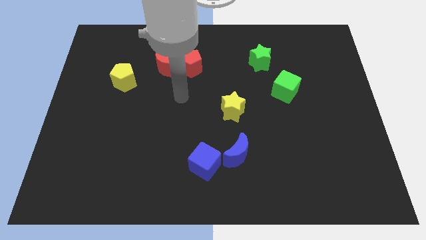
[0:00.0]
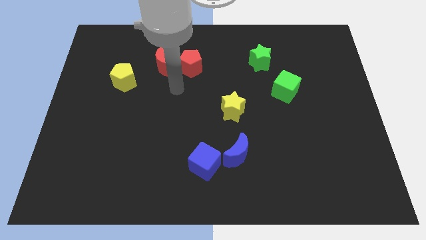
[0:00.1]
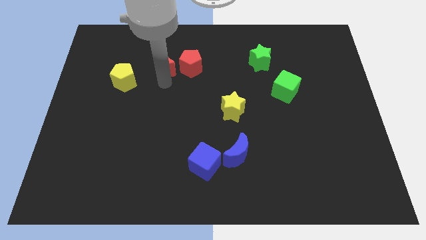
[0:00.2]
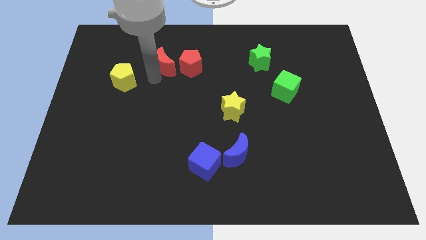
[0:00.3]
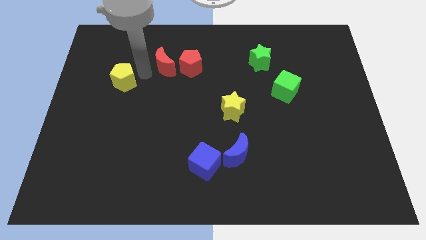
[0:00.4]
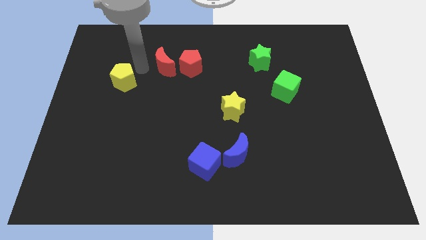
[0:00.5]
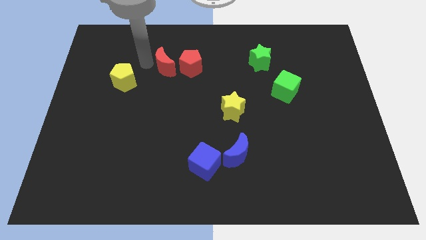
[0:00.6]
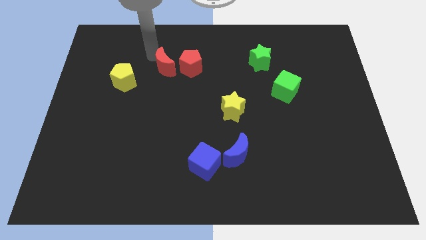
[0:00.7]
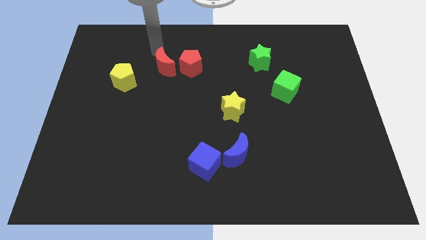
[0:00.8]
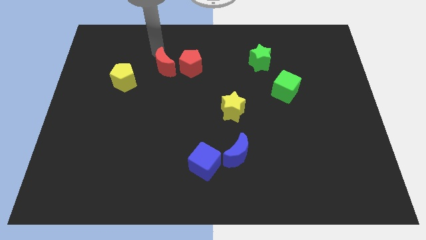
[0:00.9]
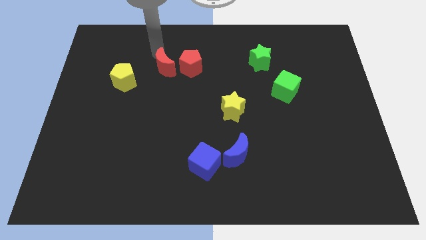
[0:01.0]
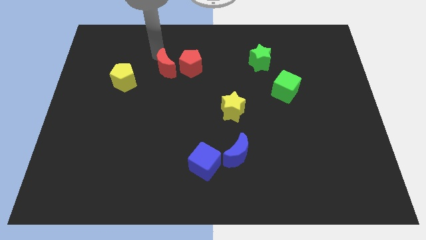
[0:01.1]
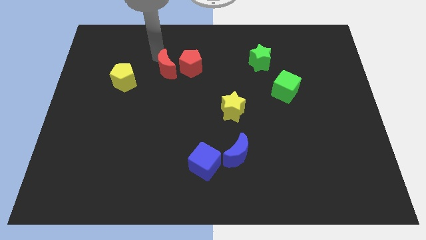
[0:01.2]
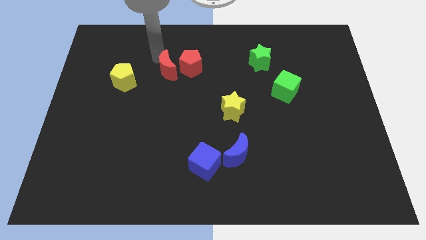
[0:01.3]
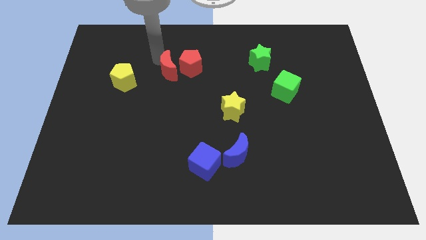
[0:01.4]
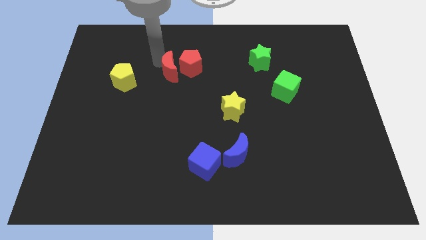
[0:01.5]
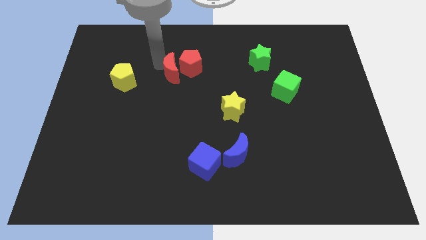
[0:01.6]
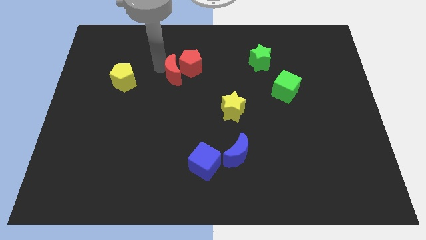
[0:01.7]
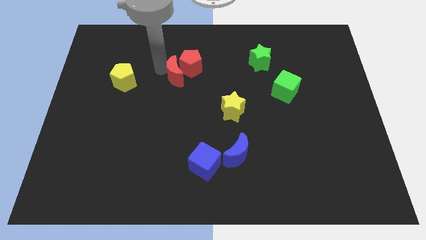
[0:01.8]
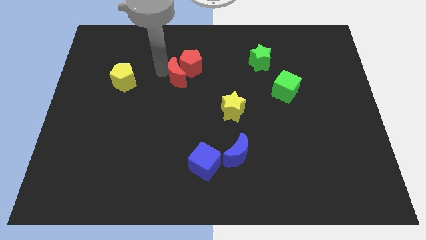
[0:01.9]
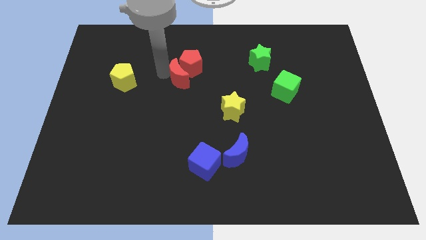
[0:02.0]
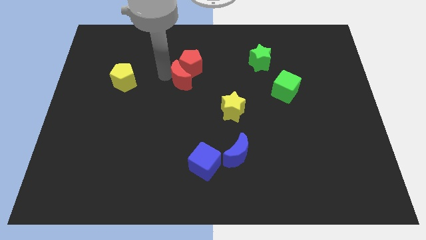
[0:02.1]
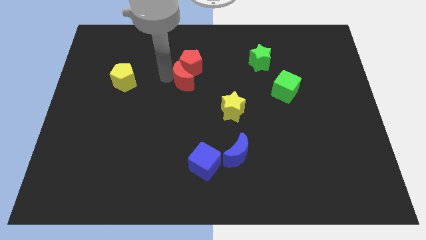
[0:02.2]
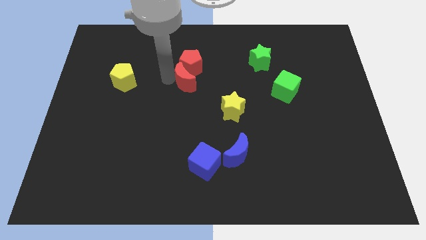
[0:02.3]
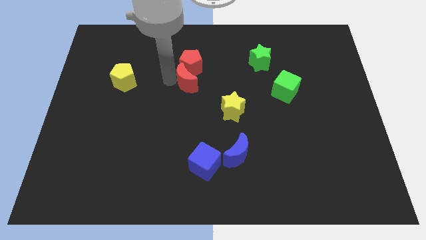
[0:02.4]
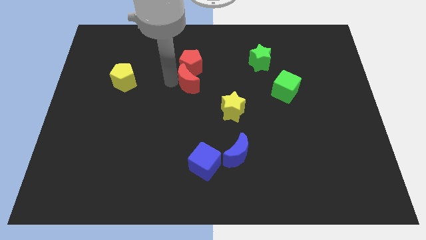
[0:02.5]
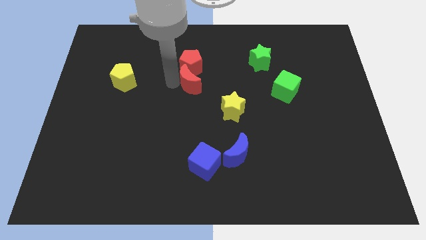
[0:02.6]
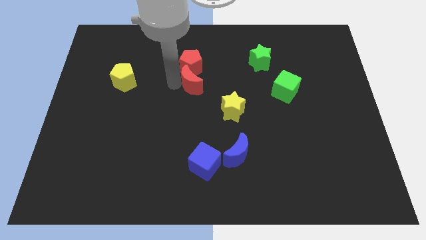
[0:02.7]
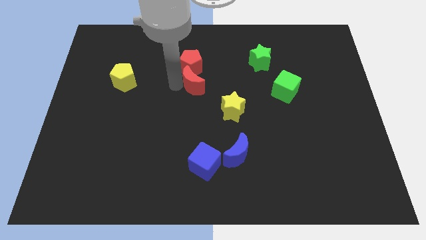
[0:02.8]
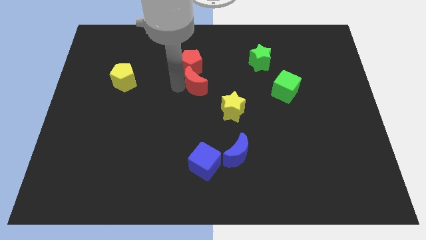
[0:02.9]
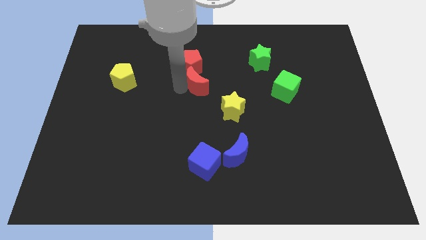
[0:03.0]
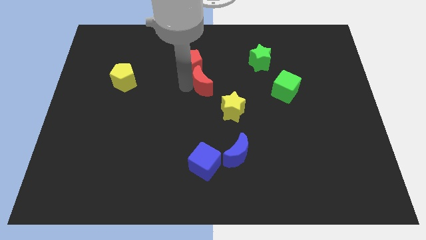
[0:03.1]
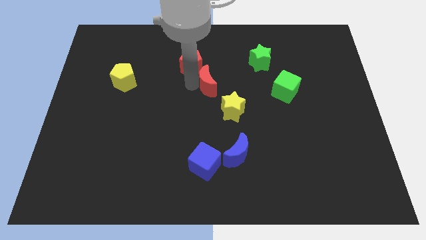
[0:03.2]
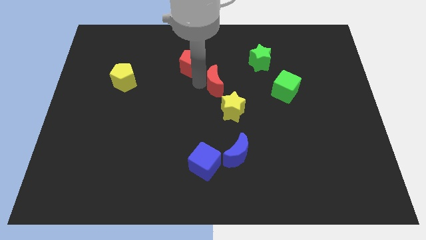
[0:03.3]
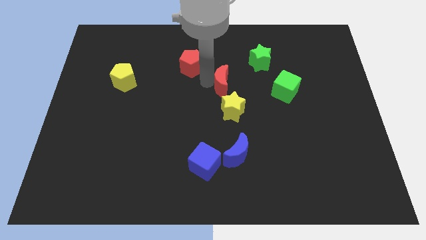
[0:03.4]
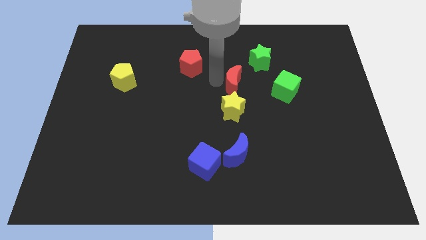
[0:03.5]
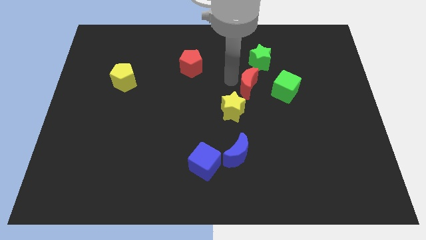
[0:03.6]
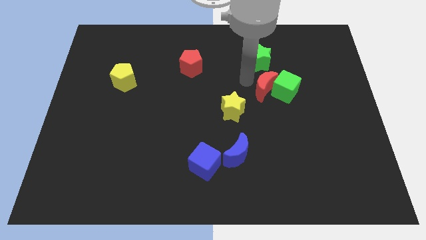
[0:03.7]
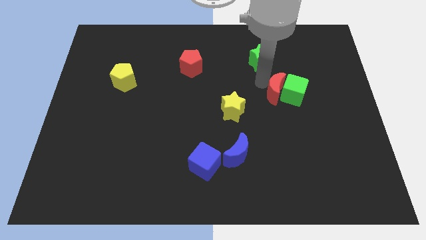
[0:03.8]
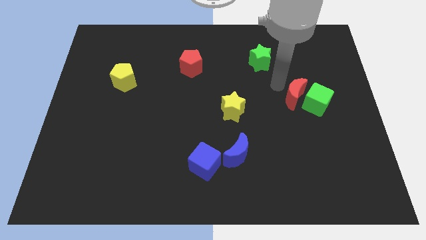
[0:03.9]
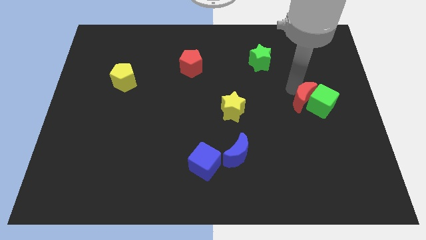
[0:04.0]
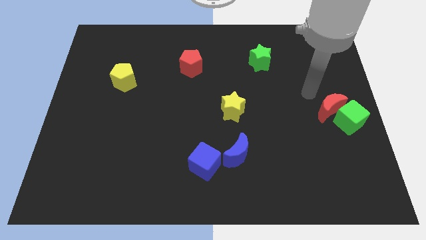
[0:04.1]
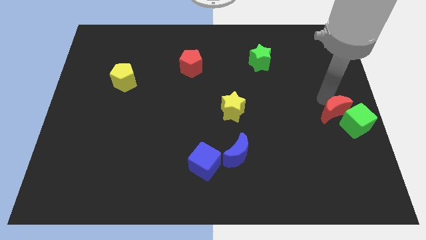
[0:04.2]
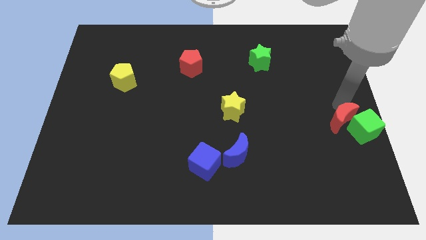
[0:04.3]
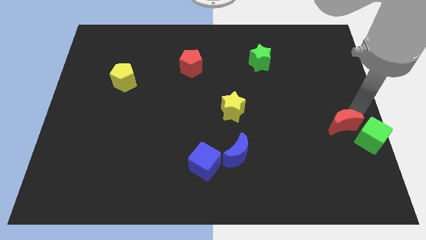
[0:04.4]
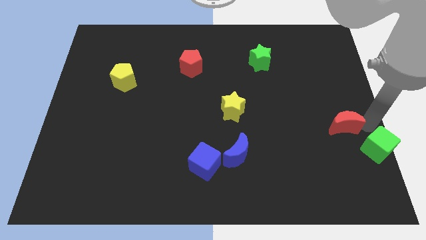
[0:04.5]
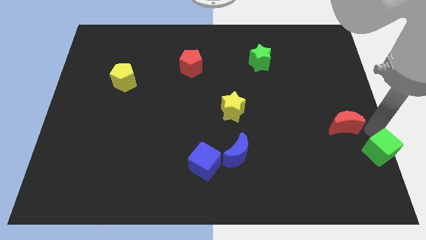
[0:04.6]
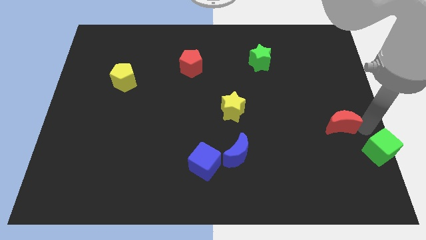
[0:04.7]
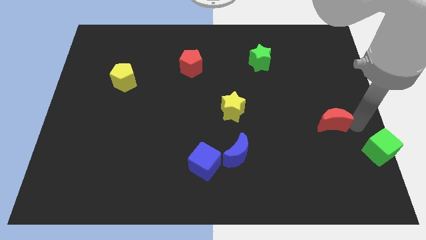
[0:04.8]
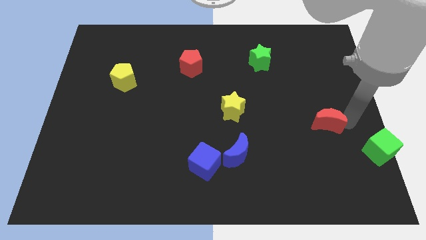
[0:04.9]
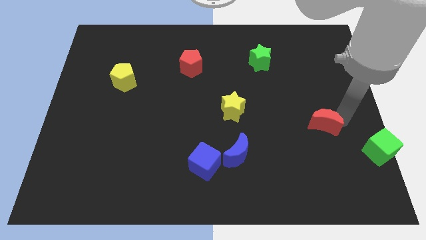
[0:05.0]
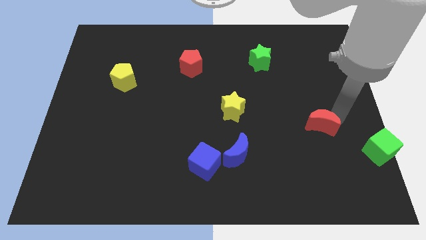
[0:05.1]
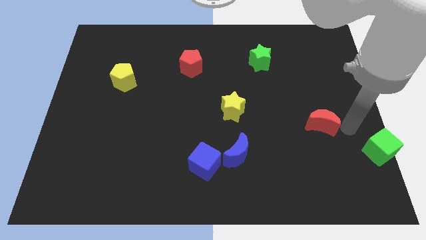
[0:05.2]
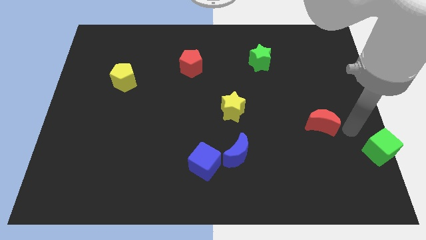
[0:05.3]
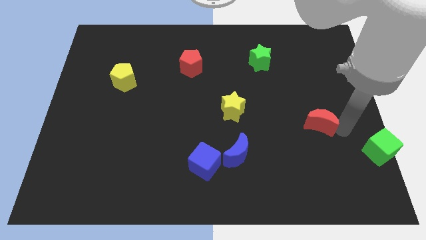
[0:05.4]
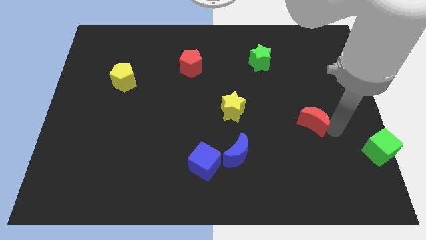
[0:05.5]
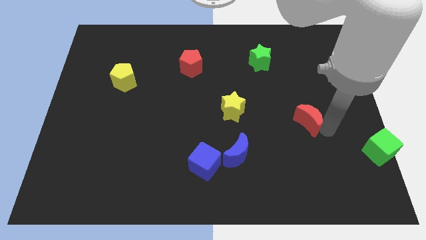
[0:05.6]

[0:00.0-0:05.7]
push the red moon diagonally down and to the right

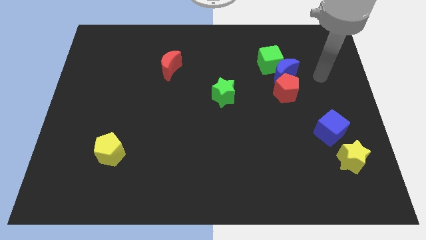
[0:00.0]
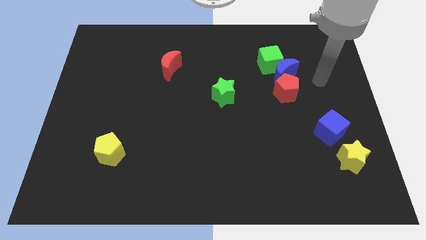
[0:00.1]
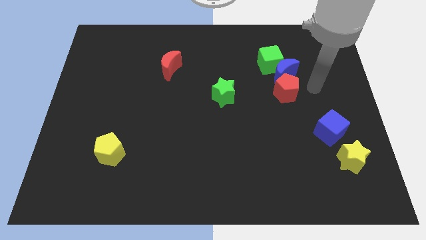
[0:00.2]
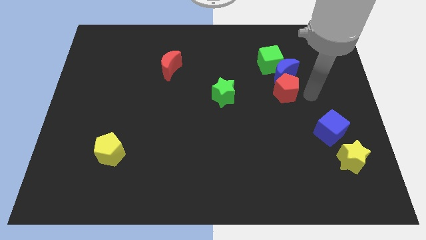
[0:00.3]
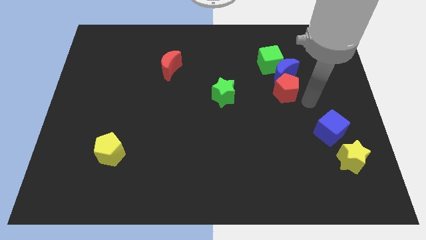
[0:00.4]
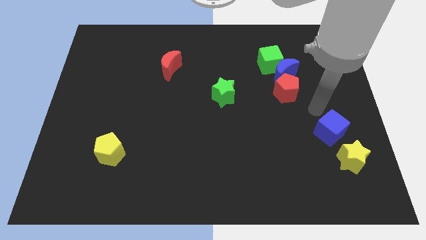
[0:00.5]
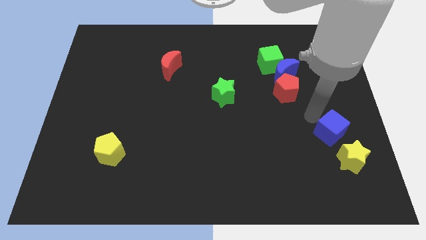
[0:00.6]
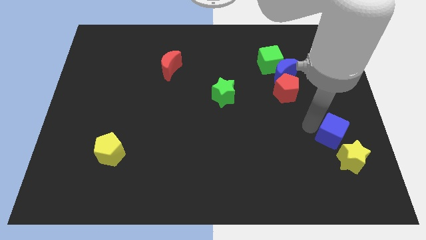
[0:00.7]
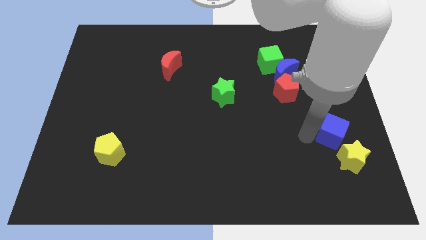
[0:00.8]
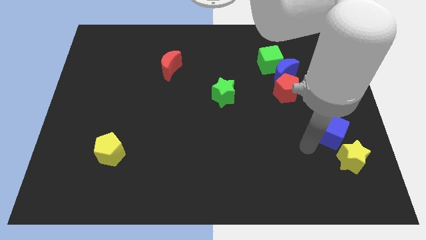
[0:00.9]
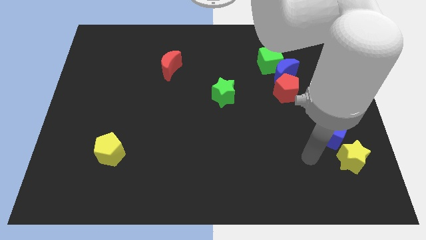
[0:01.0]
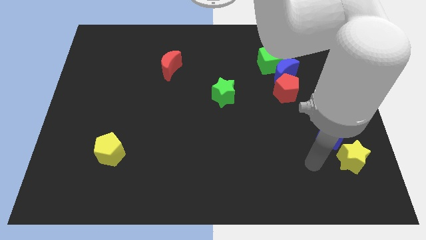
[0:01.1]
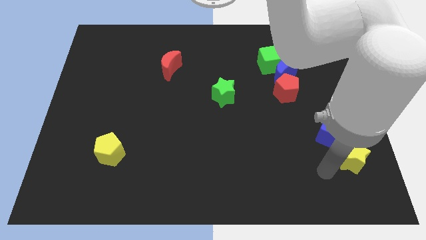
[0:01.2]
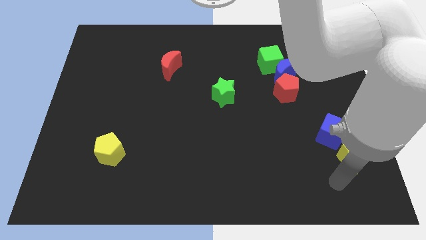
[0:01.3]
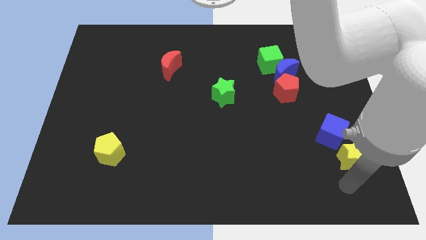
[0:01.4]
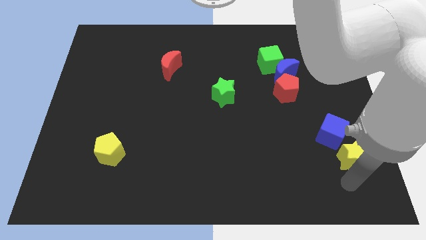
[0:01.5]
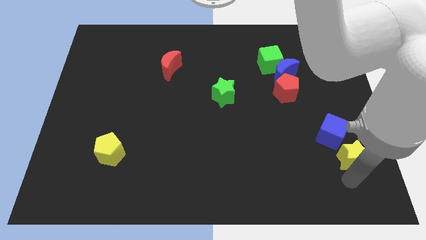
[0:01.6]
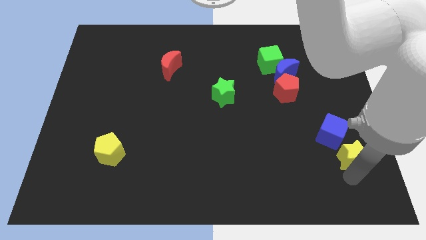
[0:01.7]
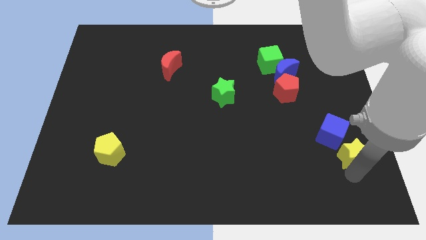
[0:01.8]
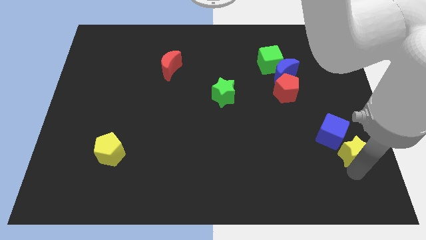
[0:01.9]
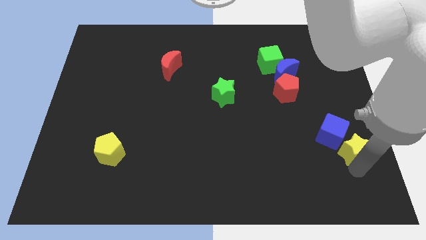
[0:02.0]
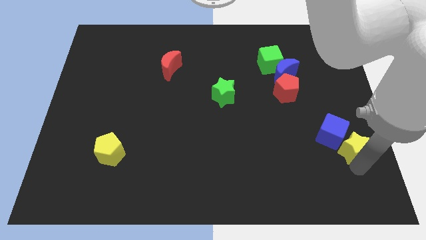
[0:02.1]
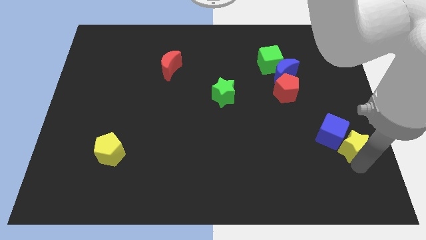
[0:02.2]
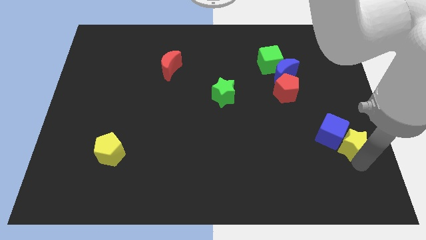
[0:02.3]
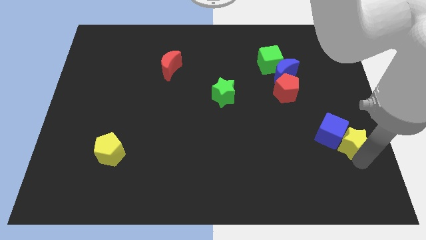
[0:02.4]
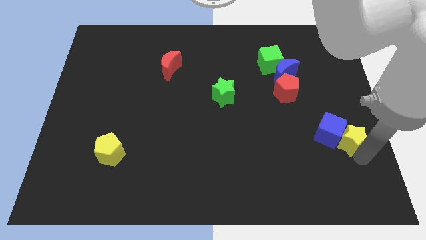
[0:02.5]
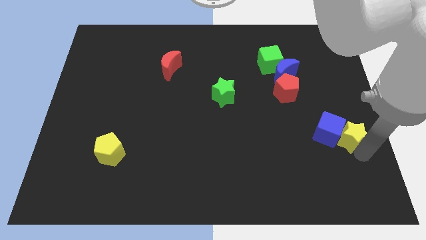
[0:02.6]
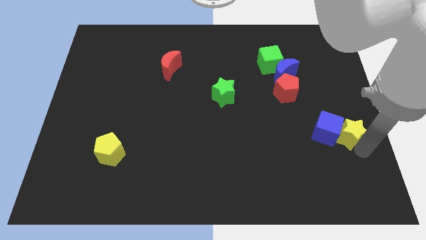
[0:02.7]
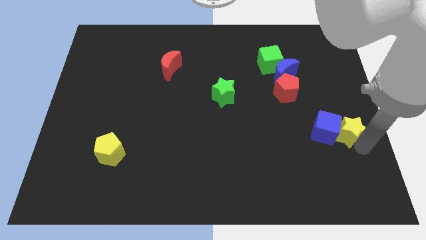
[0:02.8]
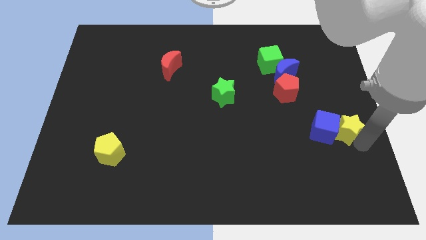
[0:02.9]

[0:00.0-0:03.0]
slightly move the yellow star up
